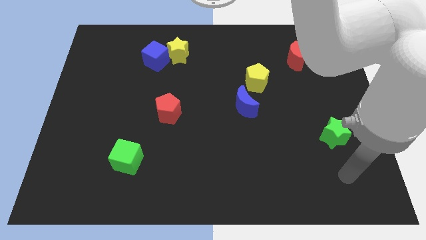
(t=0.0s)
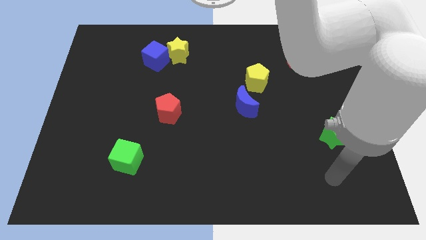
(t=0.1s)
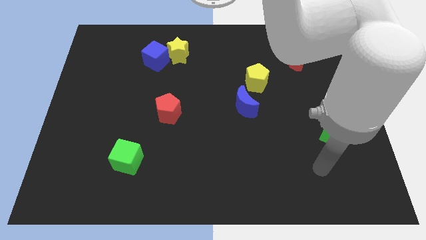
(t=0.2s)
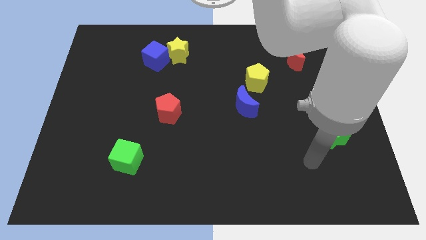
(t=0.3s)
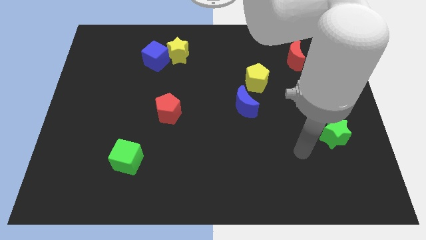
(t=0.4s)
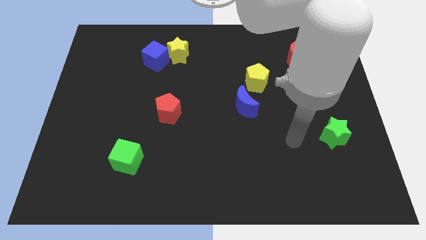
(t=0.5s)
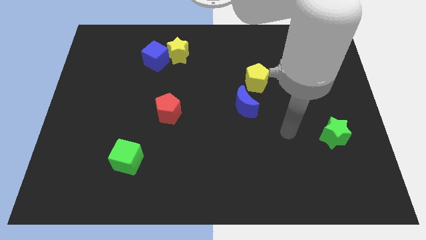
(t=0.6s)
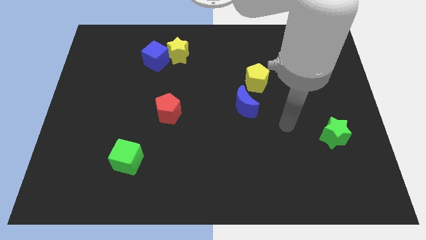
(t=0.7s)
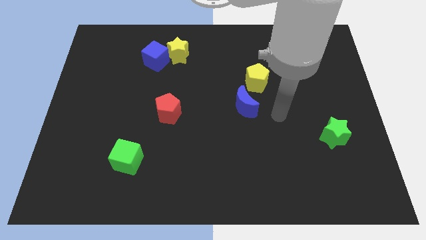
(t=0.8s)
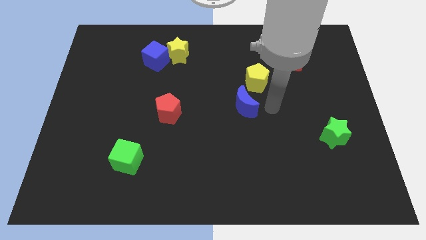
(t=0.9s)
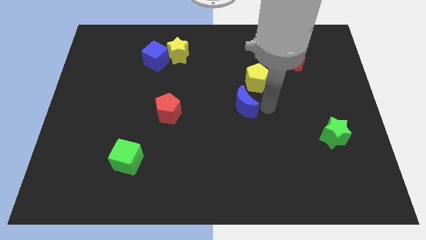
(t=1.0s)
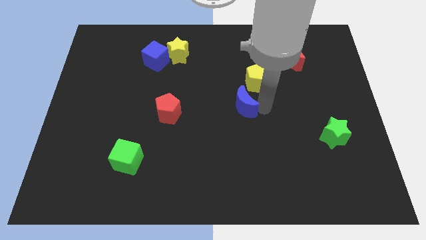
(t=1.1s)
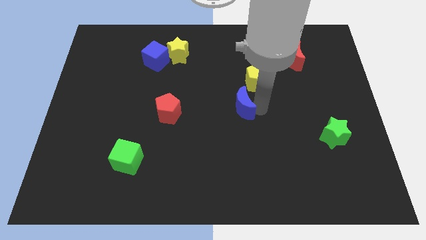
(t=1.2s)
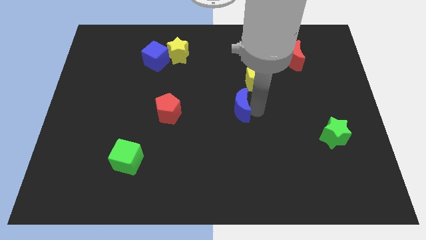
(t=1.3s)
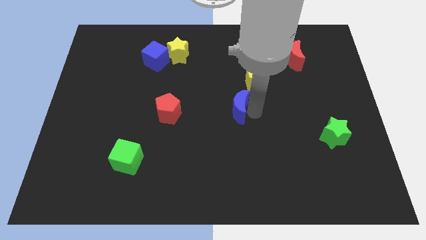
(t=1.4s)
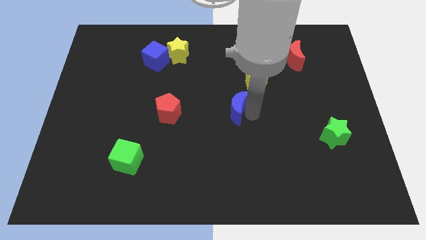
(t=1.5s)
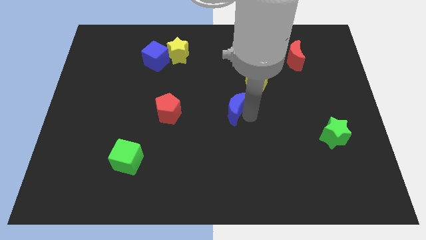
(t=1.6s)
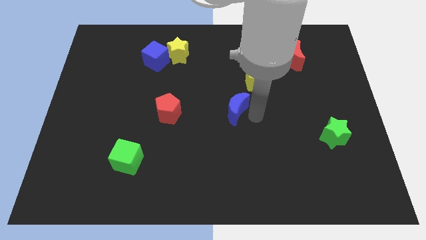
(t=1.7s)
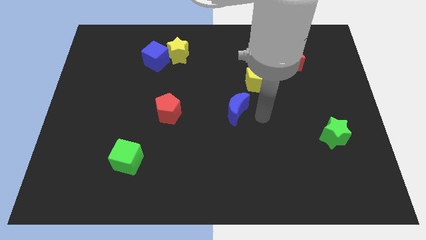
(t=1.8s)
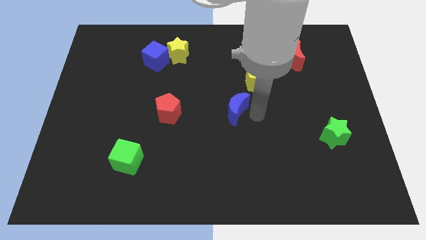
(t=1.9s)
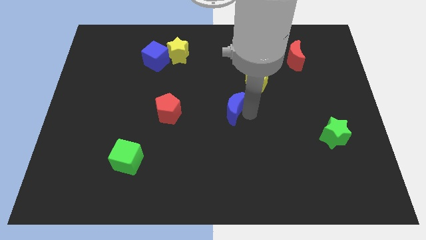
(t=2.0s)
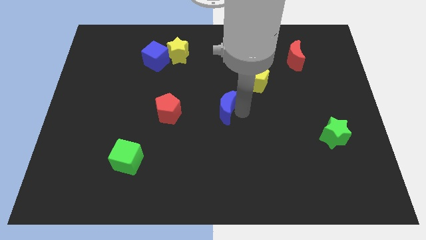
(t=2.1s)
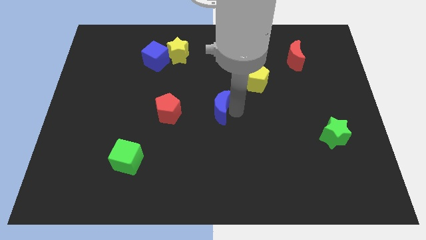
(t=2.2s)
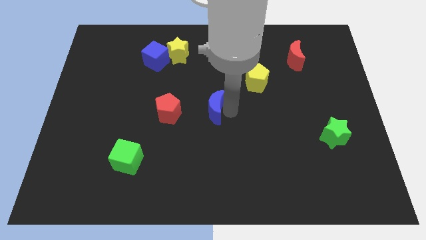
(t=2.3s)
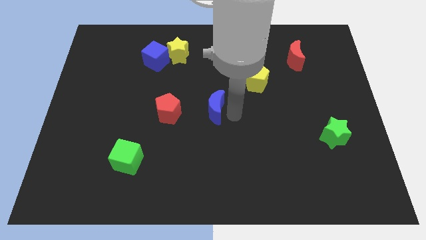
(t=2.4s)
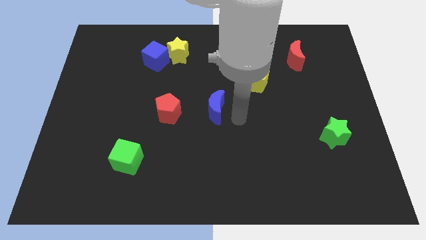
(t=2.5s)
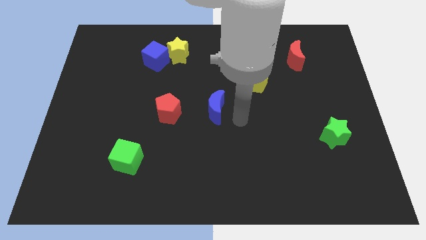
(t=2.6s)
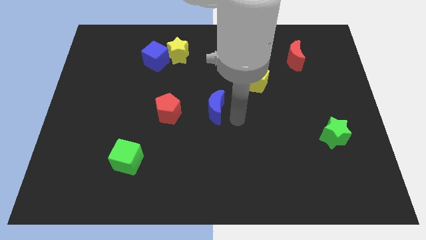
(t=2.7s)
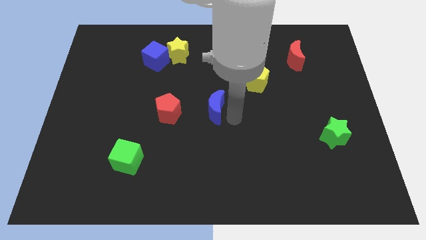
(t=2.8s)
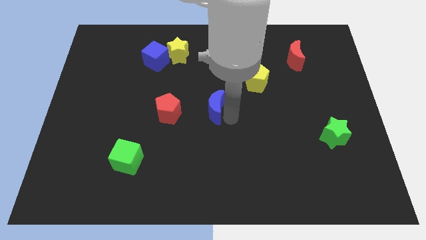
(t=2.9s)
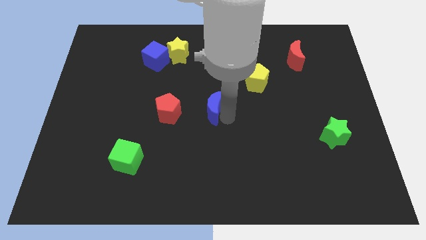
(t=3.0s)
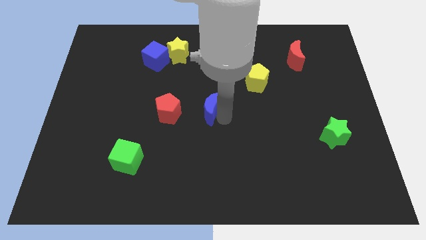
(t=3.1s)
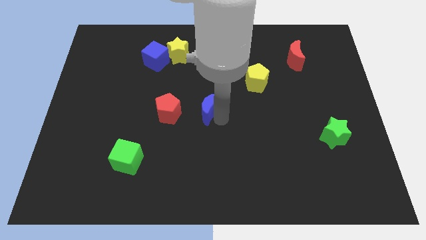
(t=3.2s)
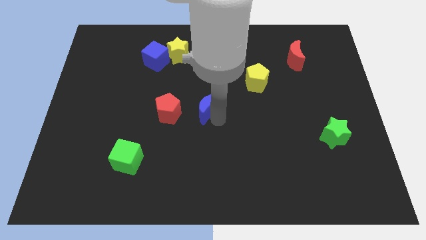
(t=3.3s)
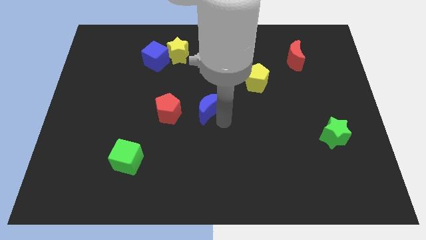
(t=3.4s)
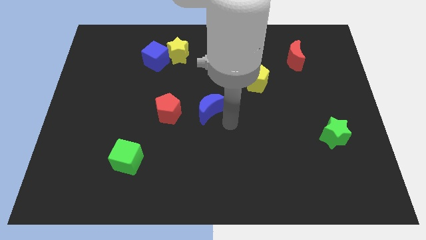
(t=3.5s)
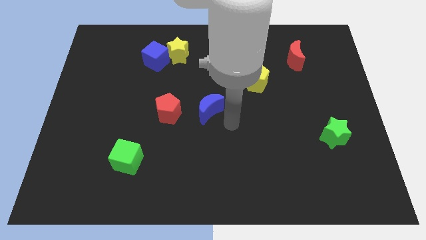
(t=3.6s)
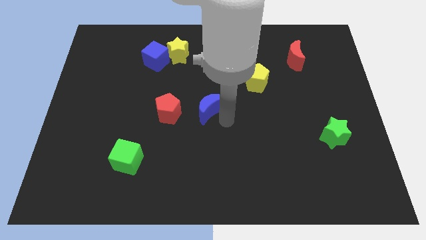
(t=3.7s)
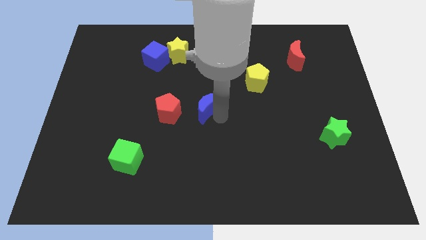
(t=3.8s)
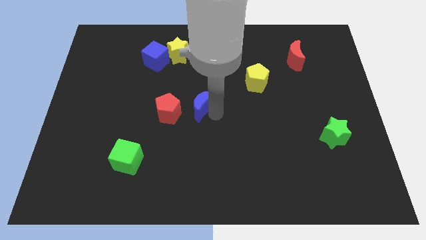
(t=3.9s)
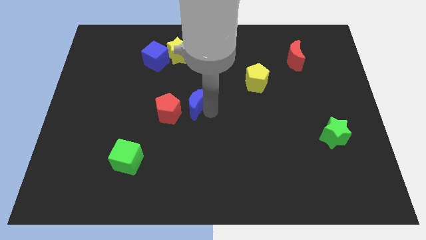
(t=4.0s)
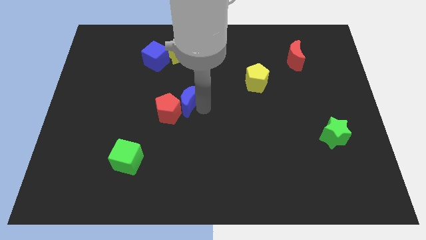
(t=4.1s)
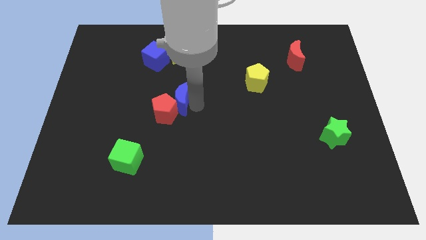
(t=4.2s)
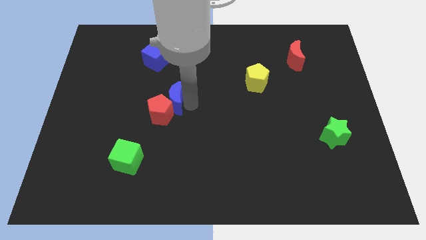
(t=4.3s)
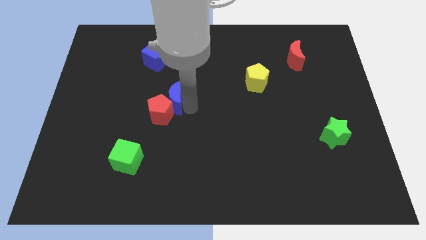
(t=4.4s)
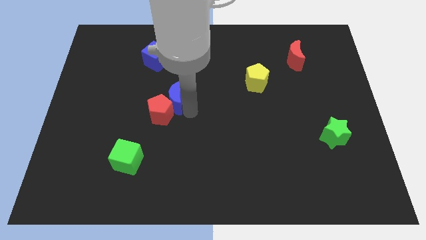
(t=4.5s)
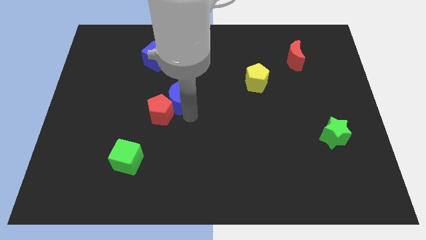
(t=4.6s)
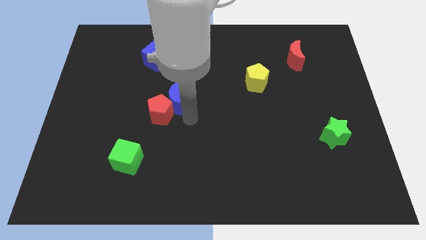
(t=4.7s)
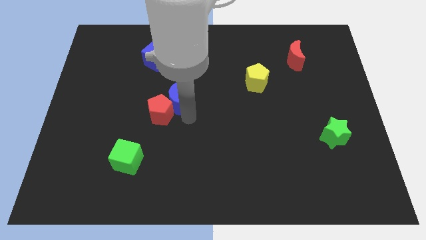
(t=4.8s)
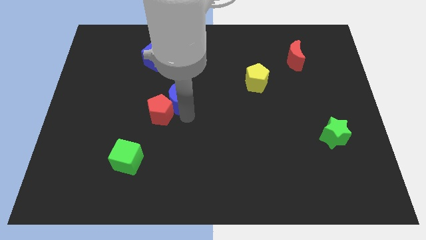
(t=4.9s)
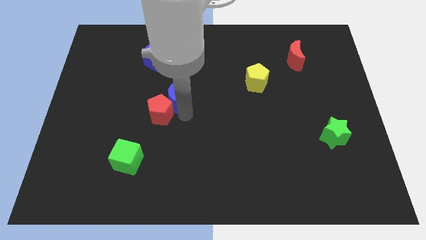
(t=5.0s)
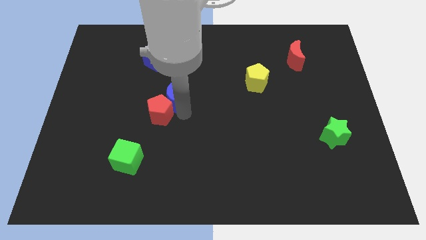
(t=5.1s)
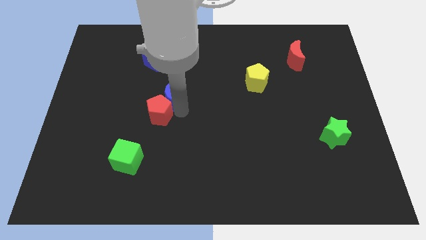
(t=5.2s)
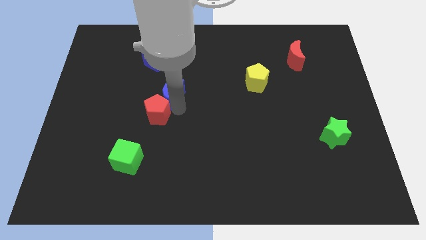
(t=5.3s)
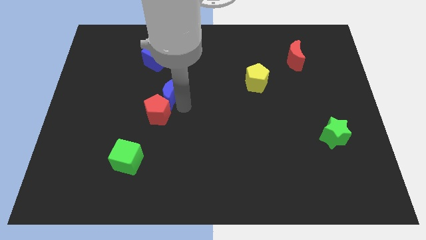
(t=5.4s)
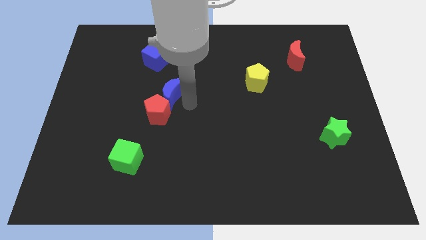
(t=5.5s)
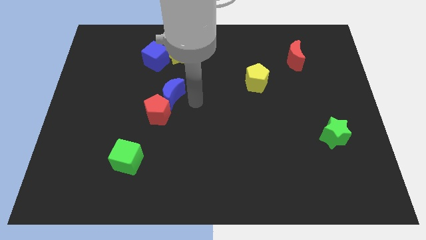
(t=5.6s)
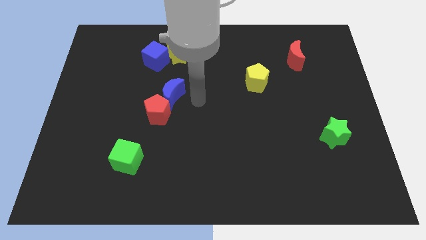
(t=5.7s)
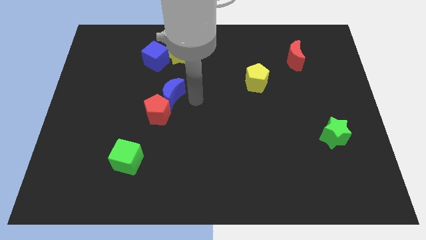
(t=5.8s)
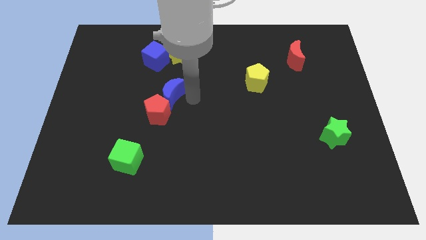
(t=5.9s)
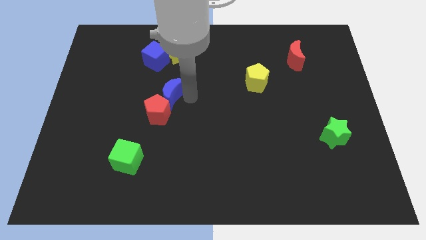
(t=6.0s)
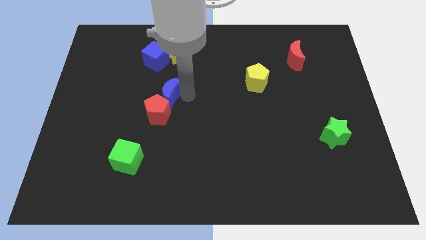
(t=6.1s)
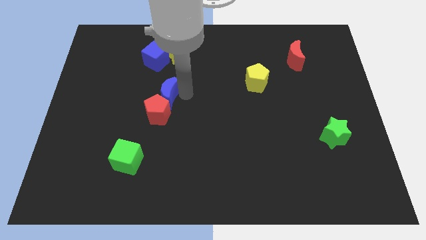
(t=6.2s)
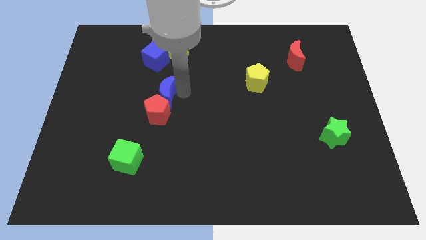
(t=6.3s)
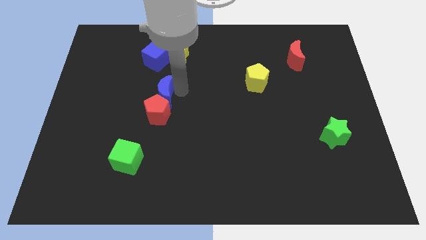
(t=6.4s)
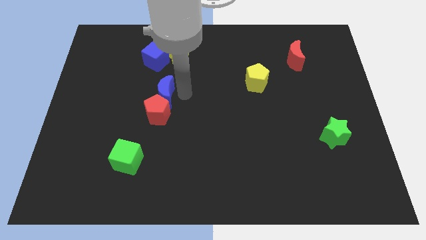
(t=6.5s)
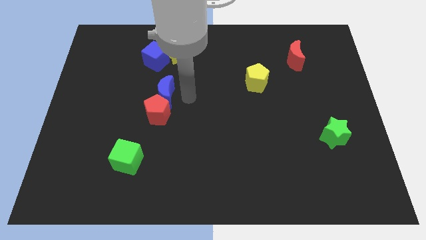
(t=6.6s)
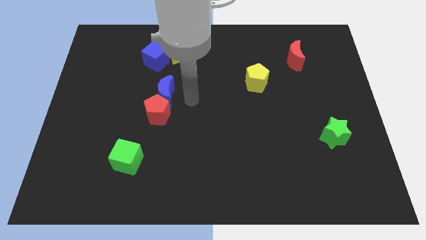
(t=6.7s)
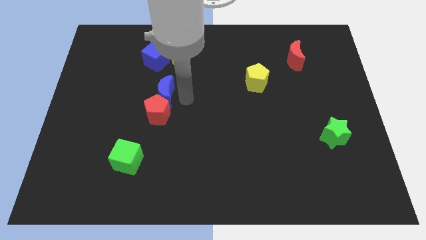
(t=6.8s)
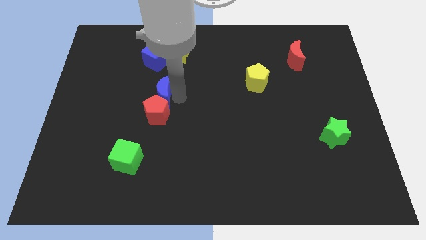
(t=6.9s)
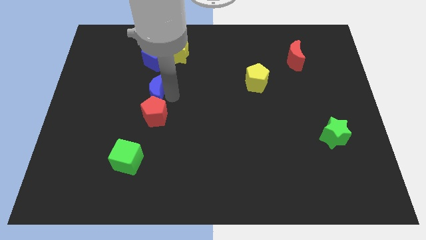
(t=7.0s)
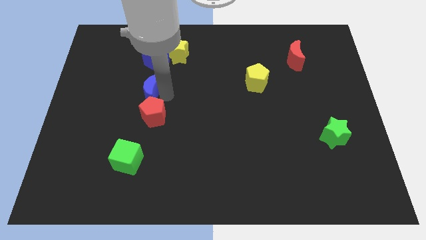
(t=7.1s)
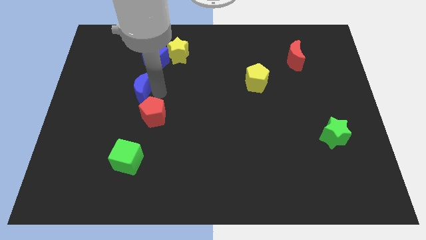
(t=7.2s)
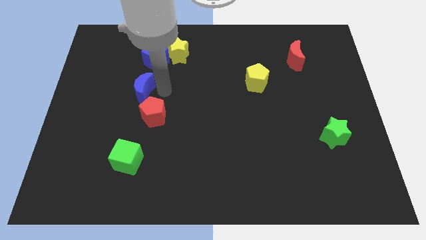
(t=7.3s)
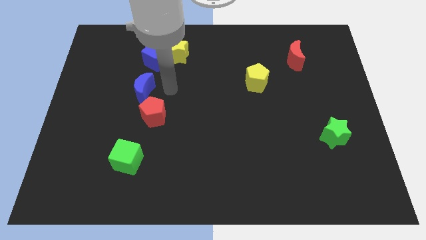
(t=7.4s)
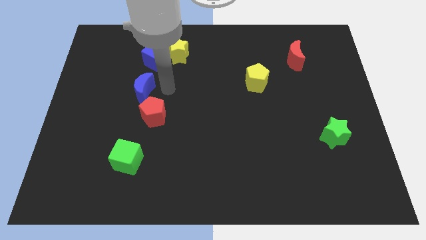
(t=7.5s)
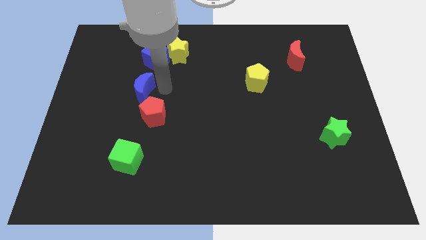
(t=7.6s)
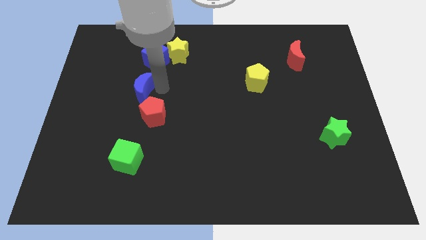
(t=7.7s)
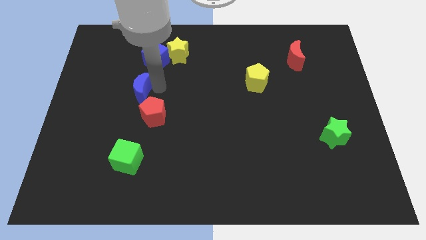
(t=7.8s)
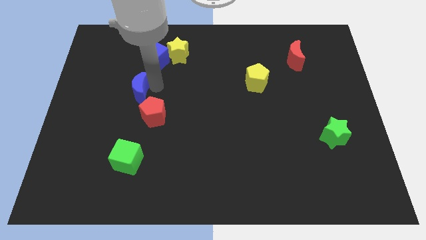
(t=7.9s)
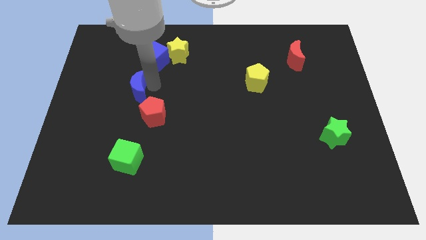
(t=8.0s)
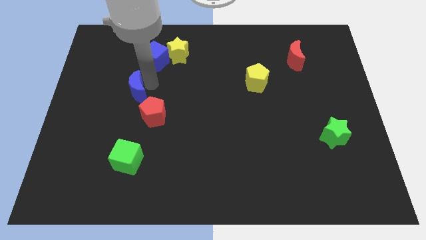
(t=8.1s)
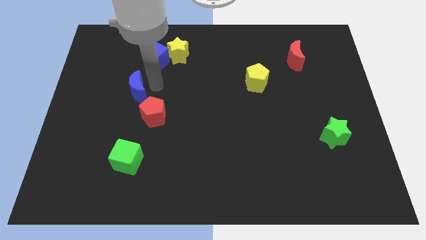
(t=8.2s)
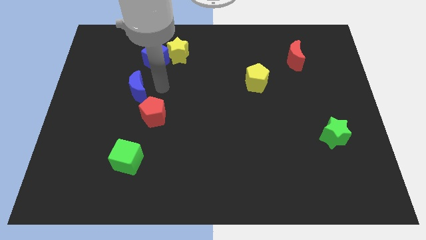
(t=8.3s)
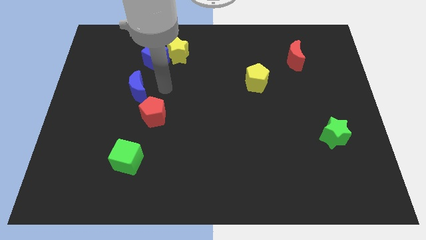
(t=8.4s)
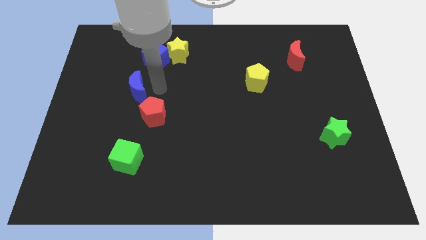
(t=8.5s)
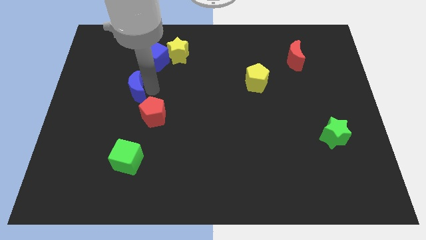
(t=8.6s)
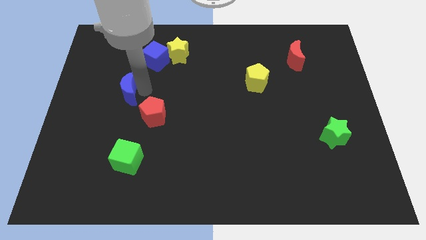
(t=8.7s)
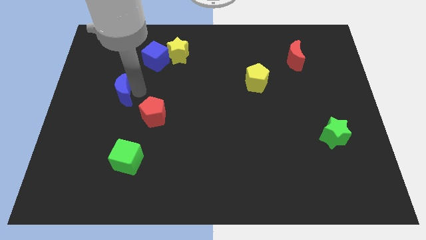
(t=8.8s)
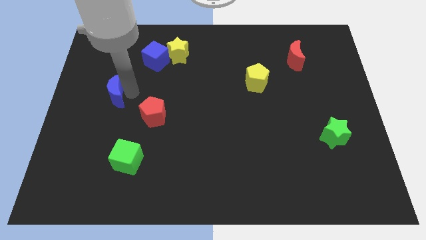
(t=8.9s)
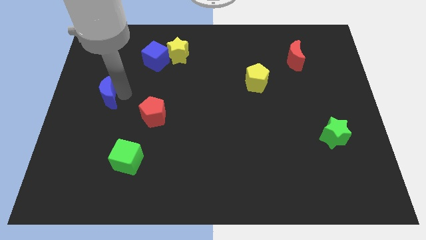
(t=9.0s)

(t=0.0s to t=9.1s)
move the blue moon to the left side of the board
